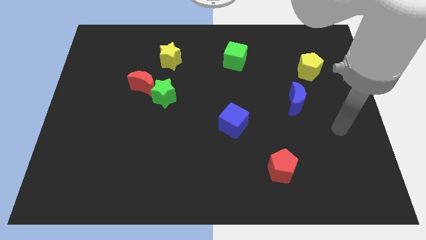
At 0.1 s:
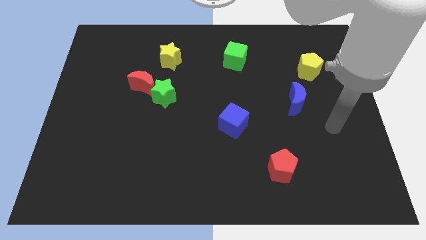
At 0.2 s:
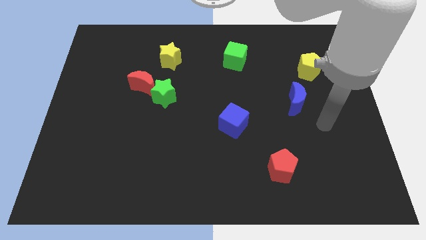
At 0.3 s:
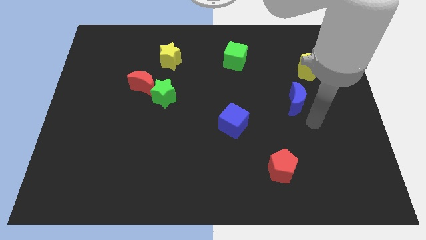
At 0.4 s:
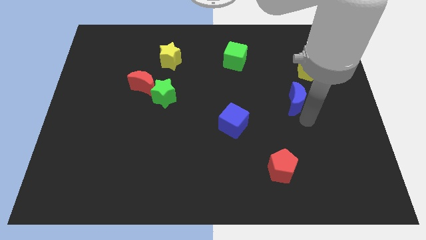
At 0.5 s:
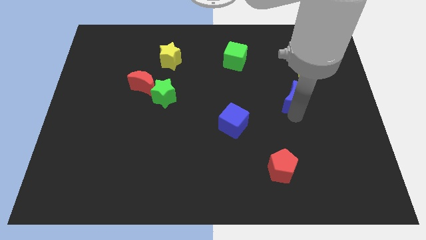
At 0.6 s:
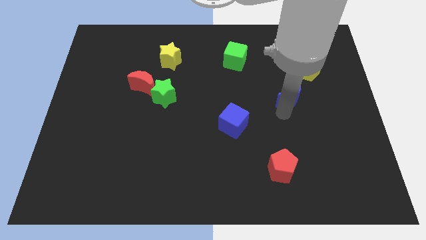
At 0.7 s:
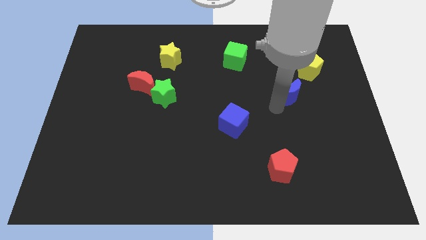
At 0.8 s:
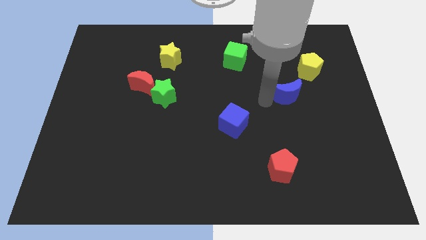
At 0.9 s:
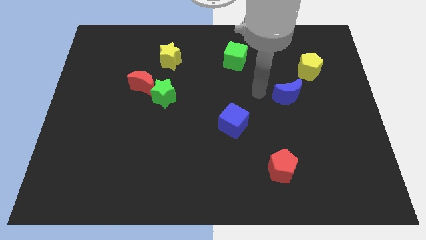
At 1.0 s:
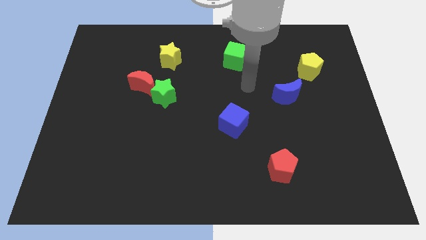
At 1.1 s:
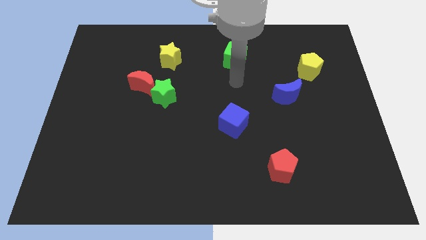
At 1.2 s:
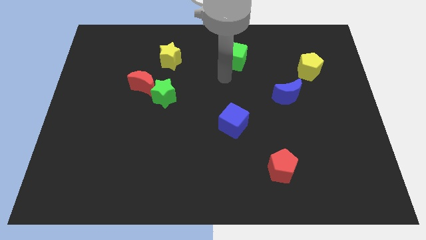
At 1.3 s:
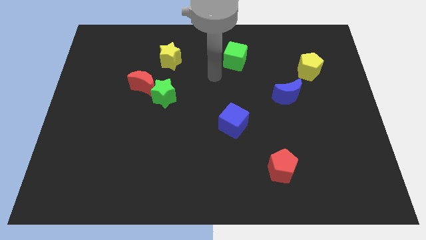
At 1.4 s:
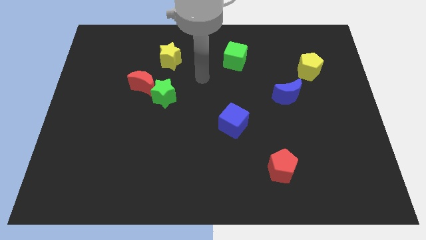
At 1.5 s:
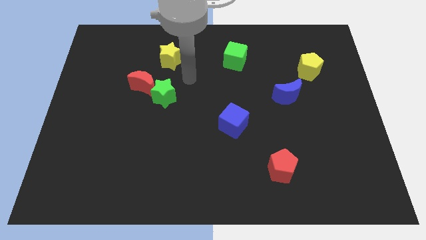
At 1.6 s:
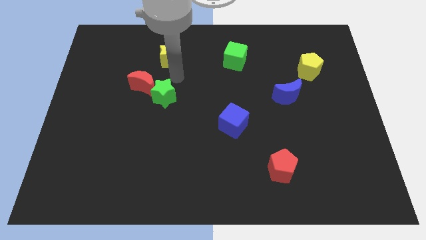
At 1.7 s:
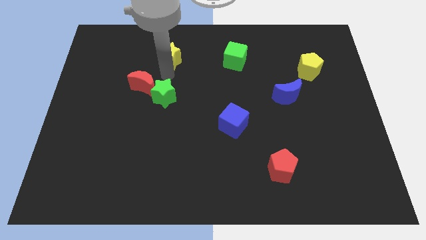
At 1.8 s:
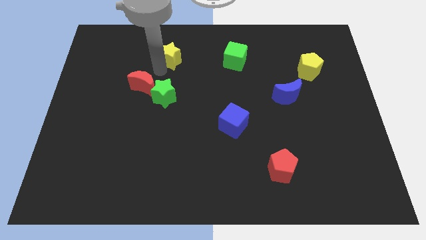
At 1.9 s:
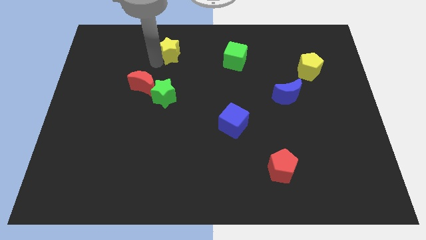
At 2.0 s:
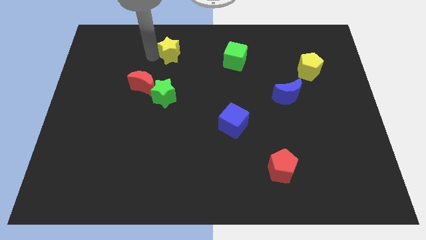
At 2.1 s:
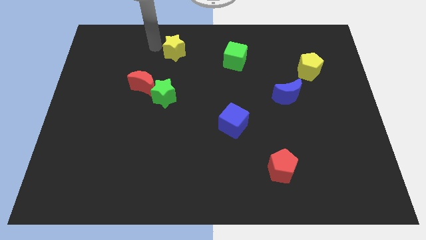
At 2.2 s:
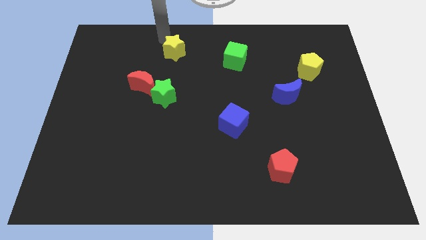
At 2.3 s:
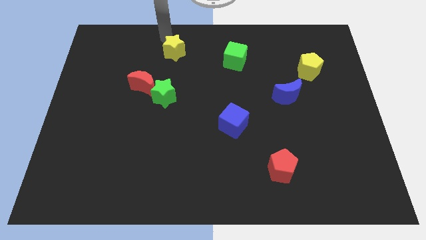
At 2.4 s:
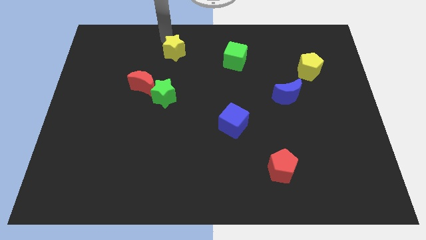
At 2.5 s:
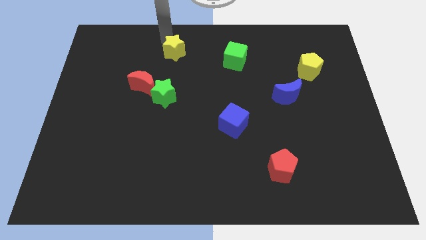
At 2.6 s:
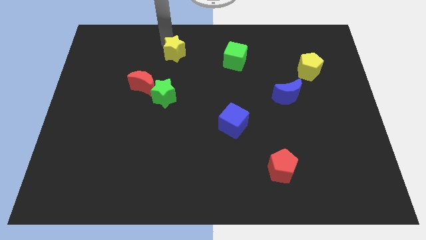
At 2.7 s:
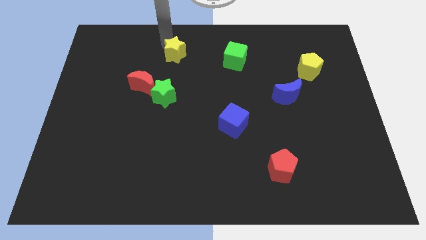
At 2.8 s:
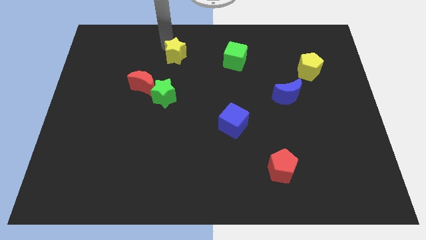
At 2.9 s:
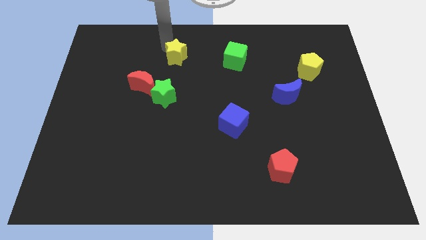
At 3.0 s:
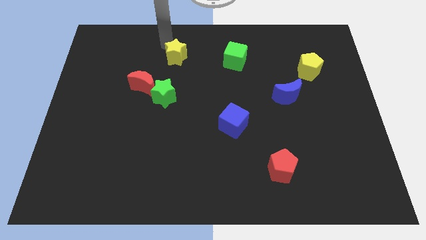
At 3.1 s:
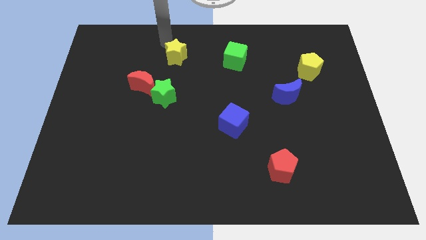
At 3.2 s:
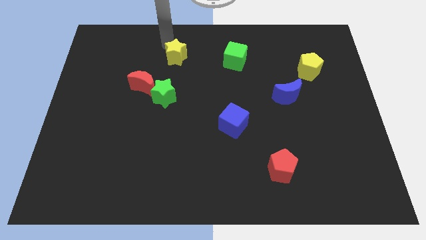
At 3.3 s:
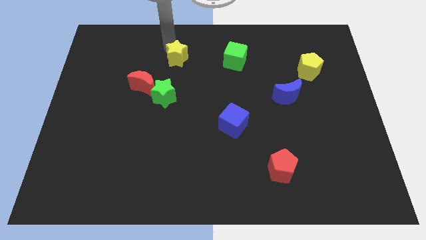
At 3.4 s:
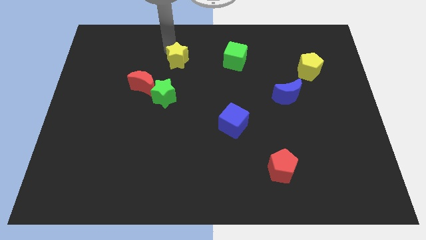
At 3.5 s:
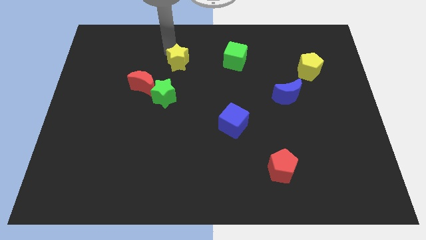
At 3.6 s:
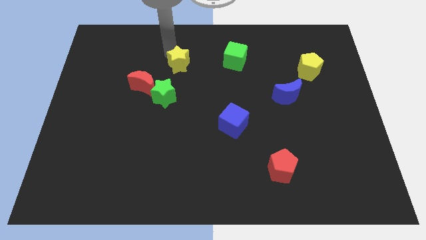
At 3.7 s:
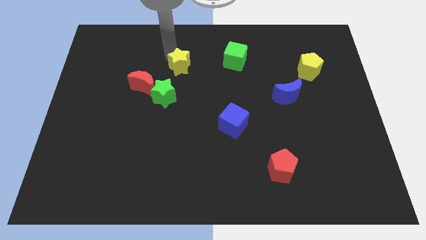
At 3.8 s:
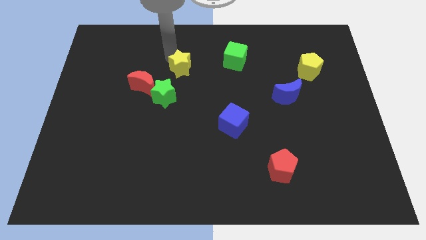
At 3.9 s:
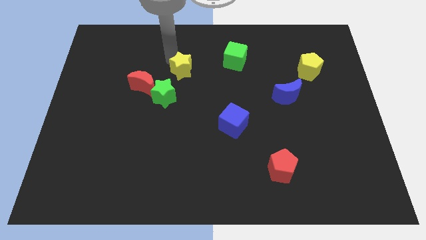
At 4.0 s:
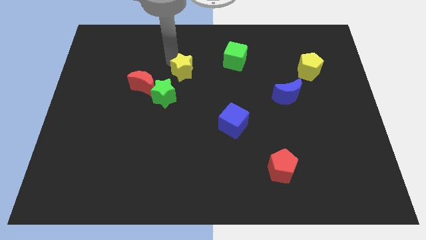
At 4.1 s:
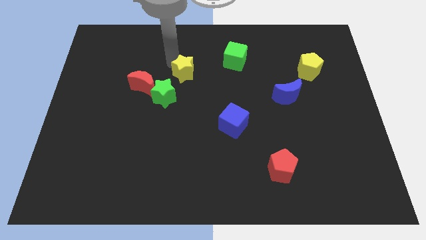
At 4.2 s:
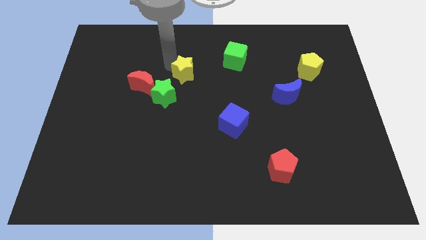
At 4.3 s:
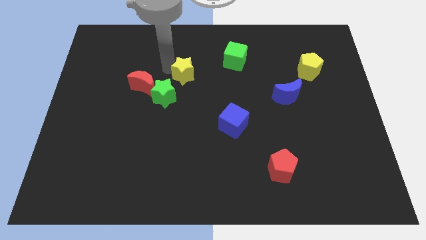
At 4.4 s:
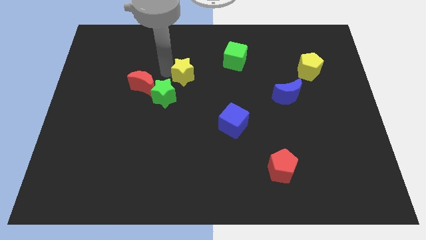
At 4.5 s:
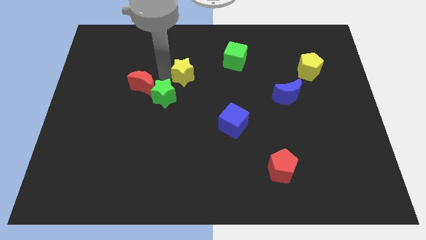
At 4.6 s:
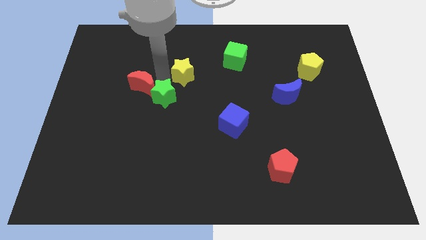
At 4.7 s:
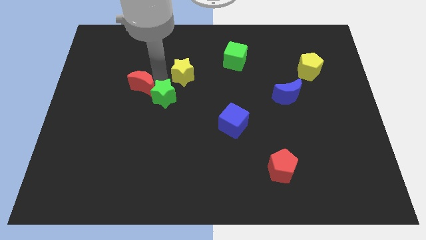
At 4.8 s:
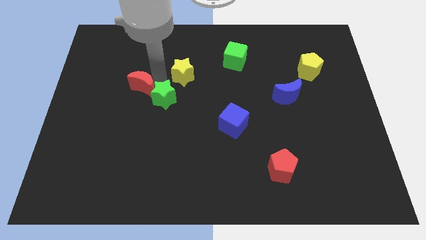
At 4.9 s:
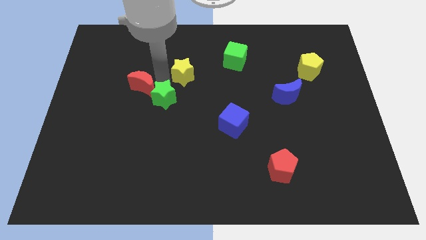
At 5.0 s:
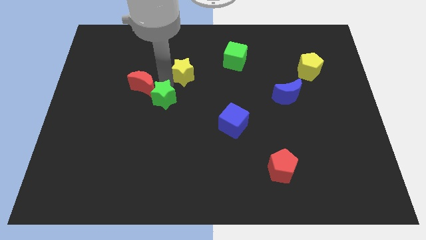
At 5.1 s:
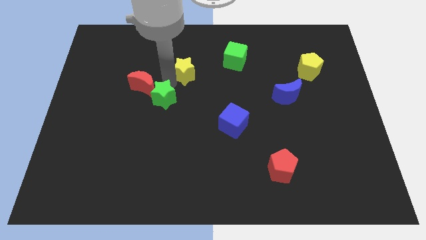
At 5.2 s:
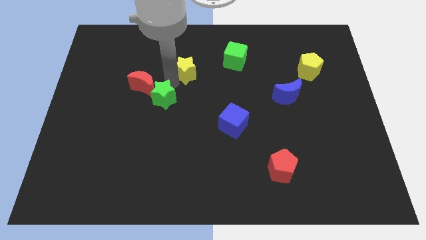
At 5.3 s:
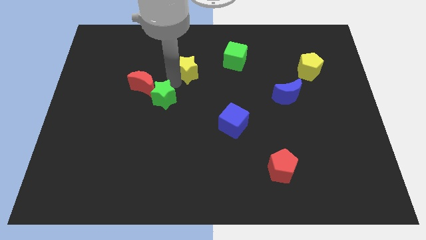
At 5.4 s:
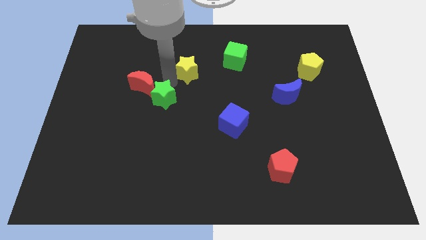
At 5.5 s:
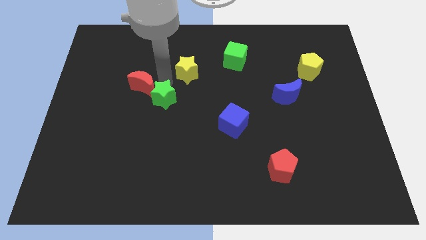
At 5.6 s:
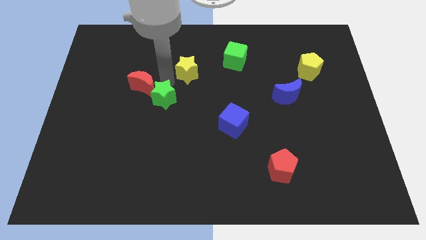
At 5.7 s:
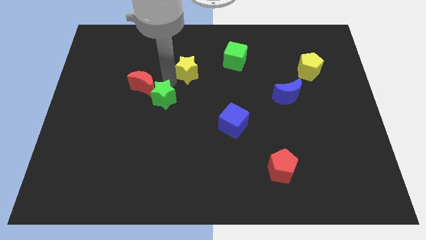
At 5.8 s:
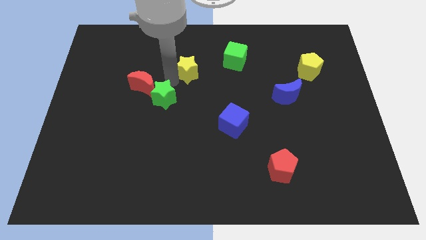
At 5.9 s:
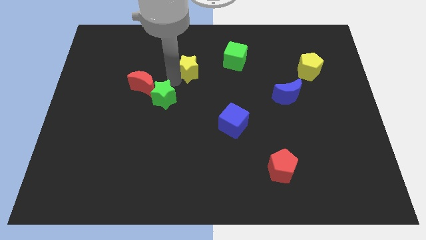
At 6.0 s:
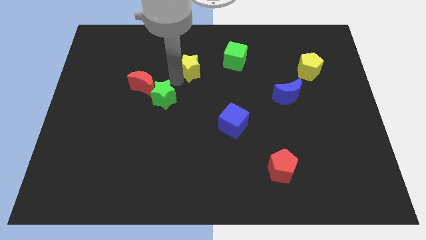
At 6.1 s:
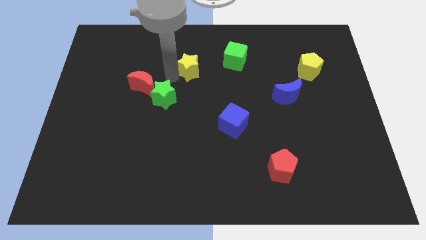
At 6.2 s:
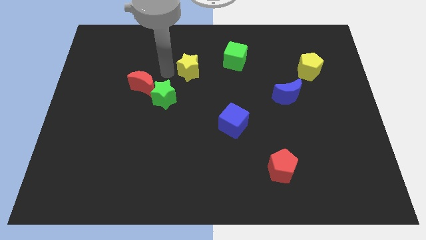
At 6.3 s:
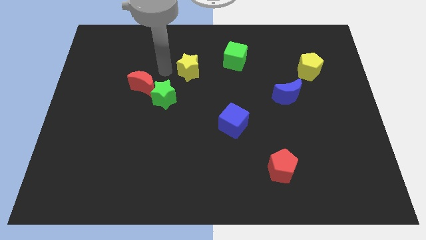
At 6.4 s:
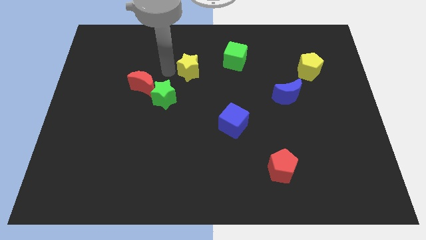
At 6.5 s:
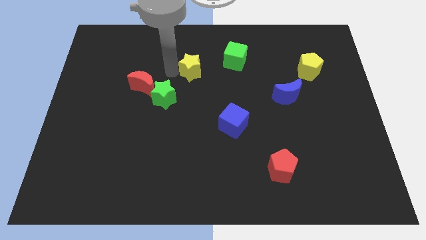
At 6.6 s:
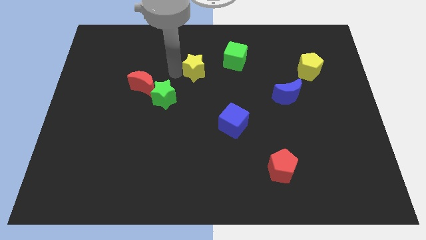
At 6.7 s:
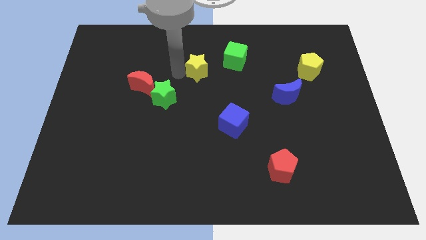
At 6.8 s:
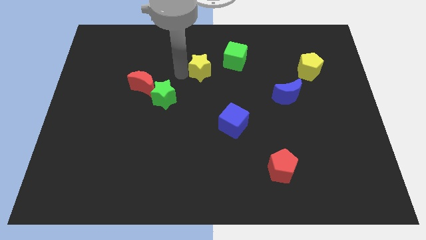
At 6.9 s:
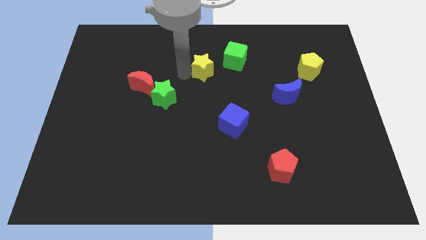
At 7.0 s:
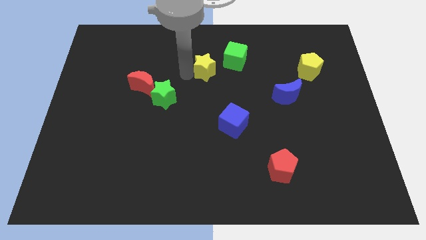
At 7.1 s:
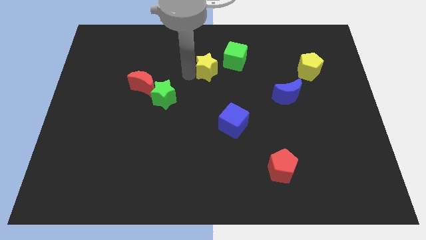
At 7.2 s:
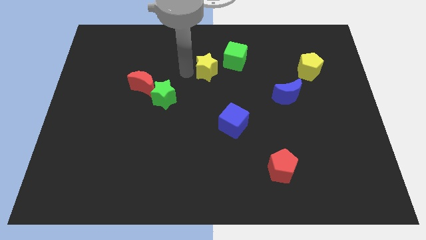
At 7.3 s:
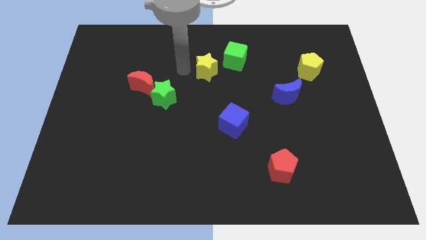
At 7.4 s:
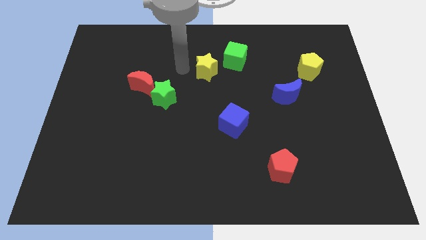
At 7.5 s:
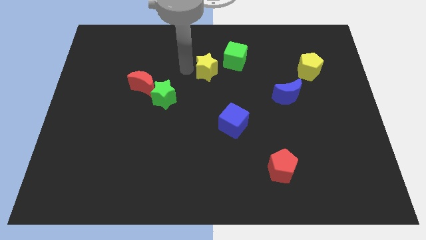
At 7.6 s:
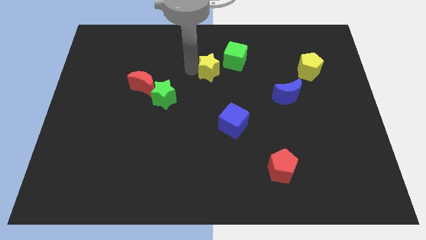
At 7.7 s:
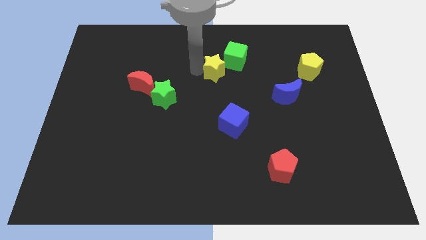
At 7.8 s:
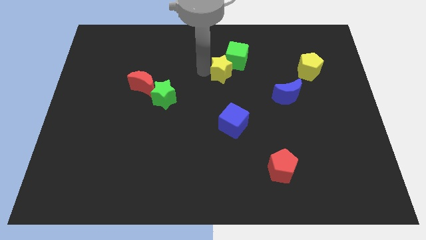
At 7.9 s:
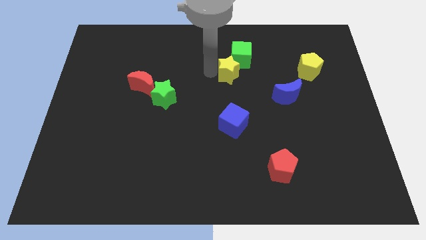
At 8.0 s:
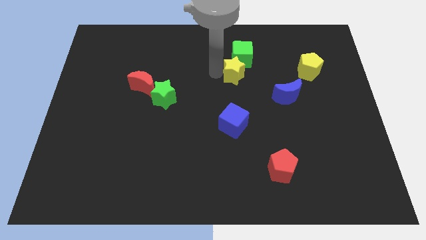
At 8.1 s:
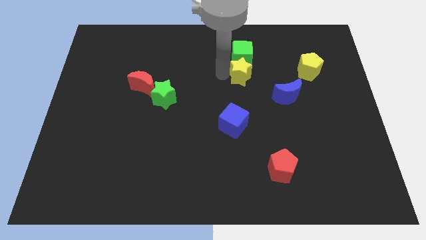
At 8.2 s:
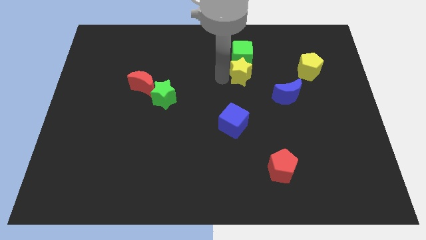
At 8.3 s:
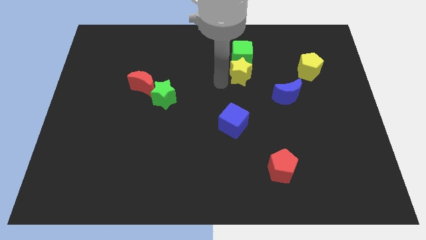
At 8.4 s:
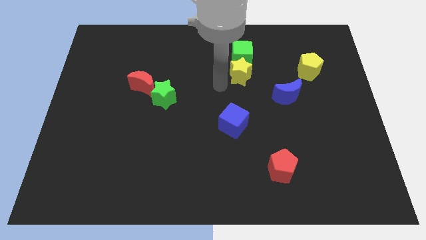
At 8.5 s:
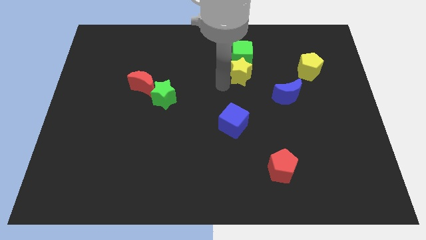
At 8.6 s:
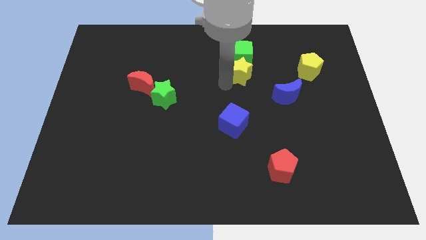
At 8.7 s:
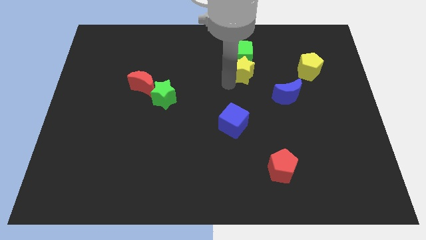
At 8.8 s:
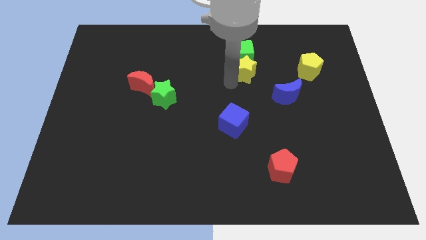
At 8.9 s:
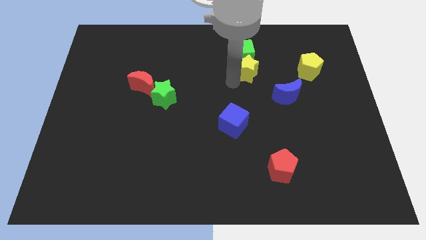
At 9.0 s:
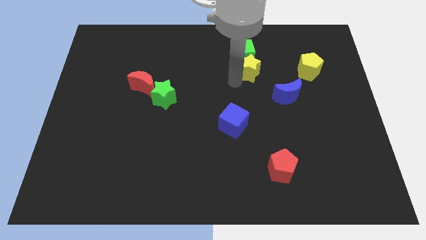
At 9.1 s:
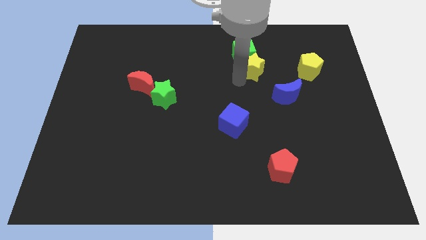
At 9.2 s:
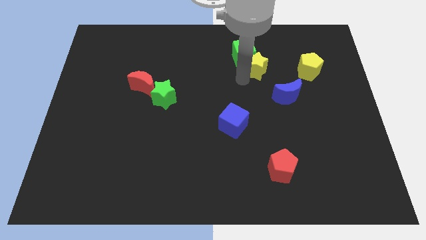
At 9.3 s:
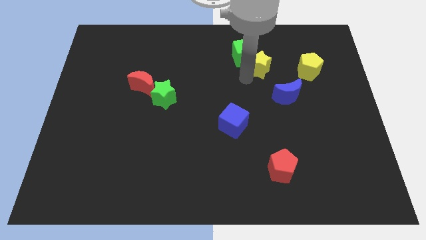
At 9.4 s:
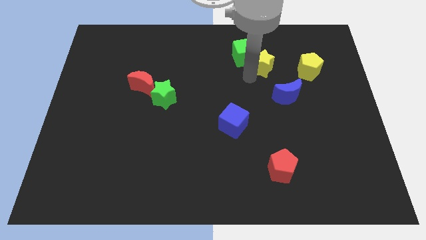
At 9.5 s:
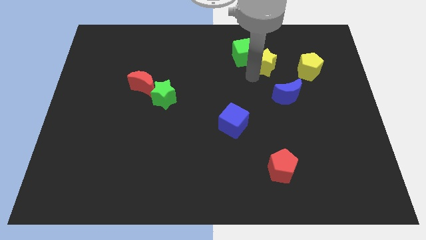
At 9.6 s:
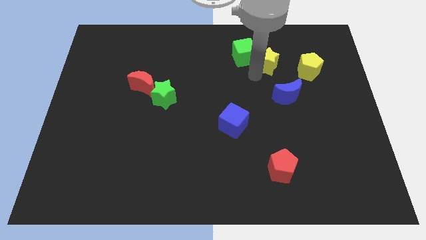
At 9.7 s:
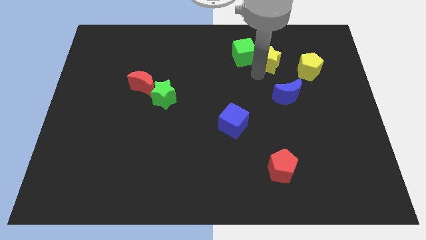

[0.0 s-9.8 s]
push the yellow star to the top left side of the yellow pentagon
